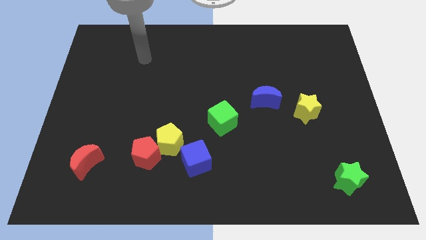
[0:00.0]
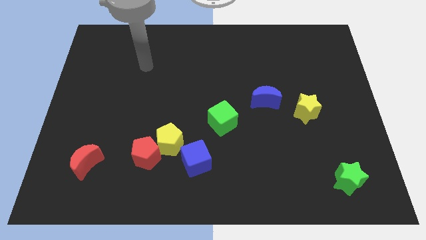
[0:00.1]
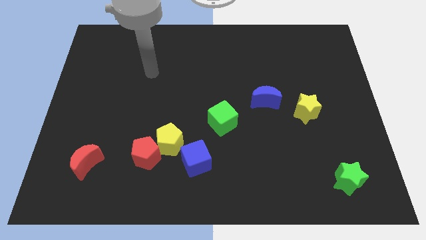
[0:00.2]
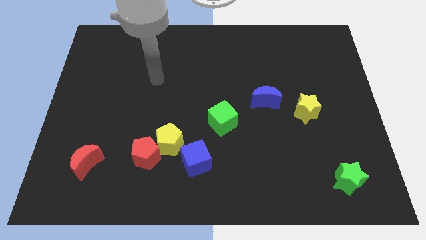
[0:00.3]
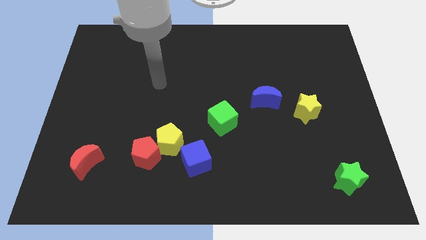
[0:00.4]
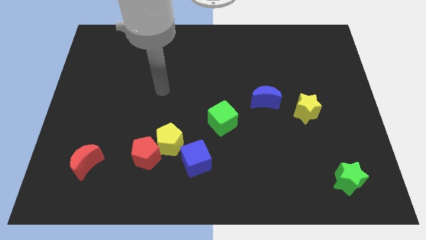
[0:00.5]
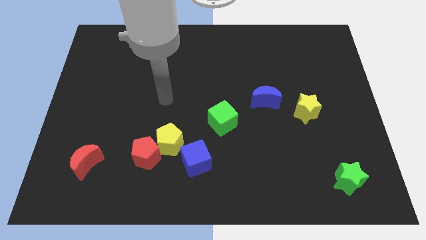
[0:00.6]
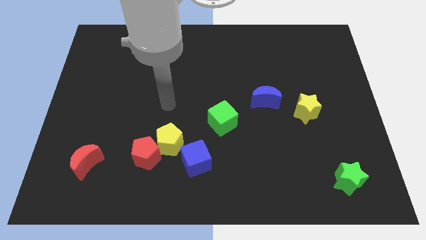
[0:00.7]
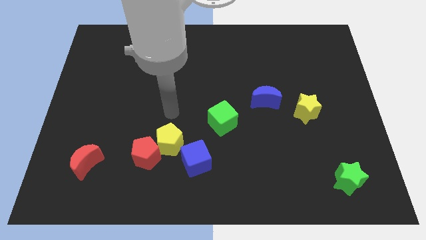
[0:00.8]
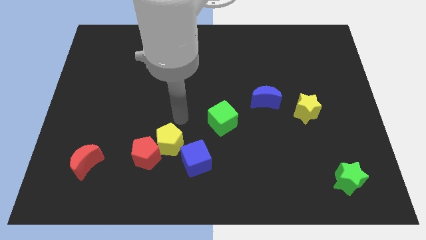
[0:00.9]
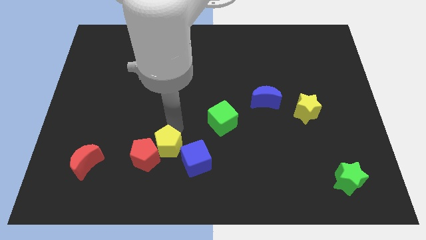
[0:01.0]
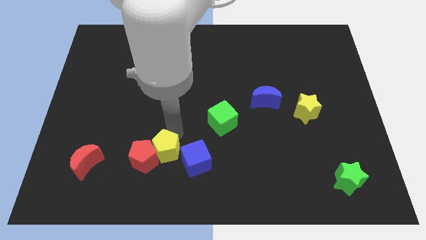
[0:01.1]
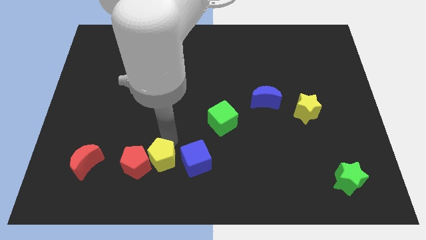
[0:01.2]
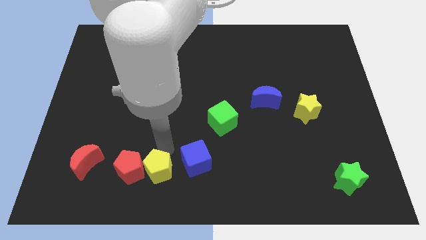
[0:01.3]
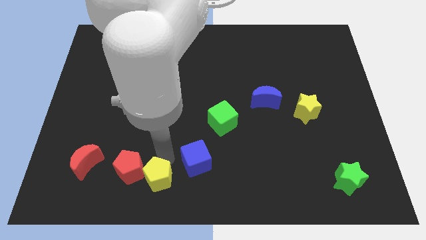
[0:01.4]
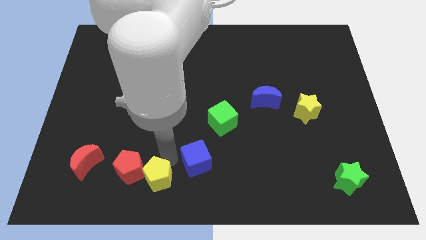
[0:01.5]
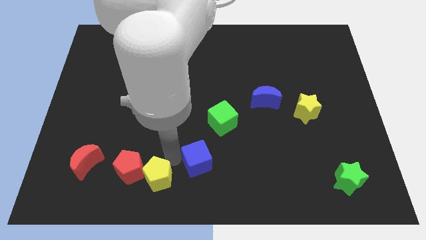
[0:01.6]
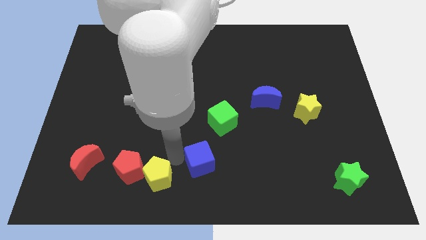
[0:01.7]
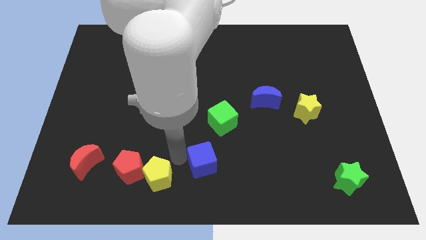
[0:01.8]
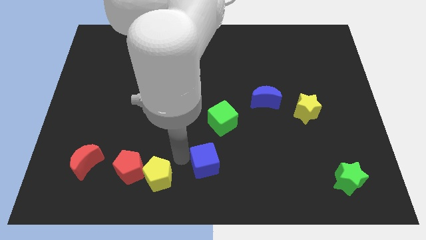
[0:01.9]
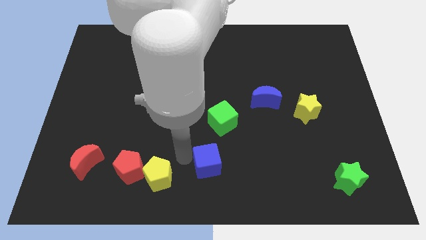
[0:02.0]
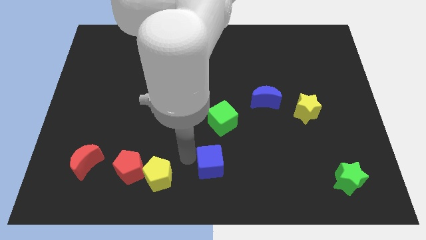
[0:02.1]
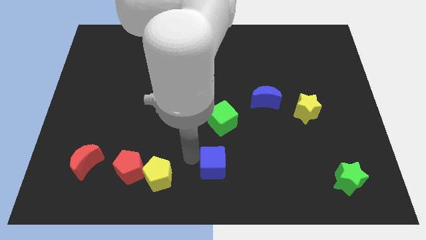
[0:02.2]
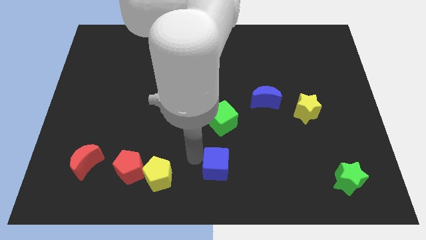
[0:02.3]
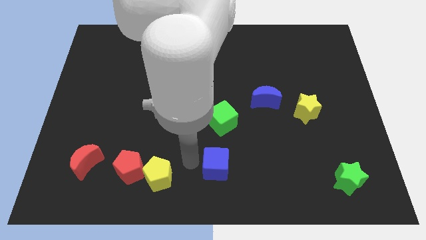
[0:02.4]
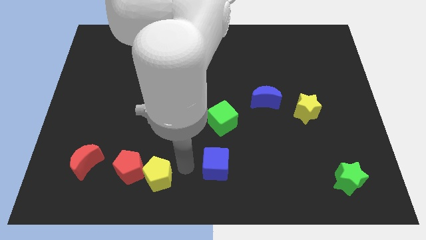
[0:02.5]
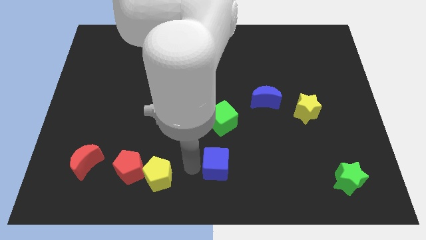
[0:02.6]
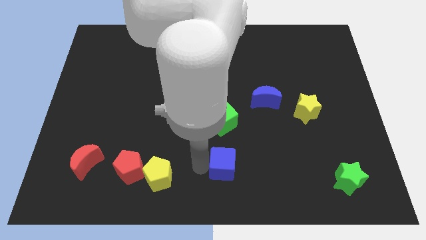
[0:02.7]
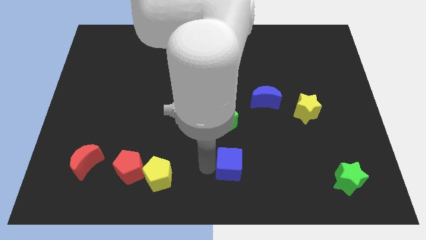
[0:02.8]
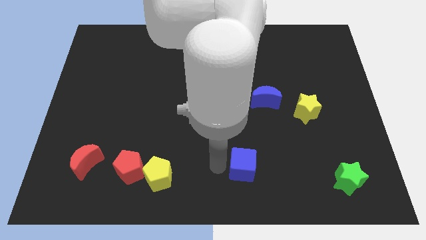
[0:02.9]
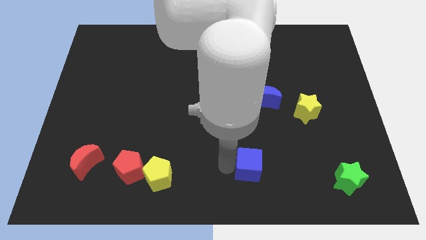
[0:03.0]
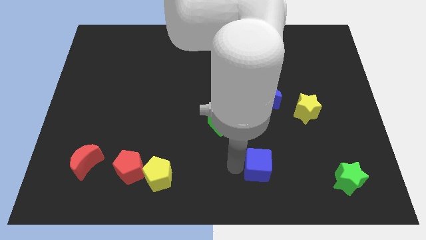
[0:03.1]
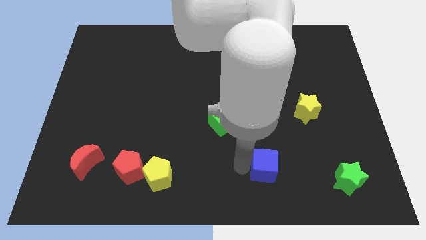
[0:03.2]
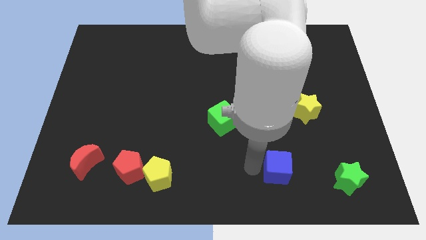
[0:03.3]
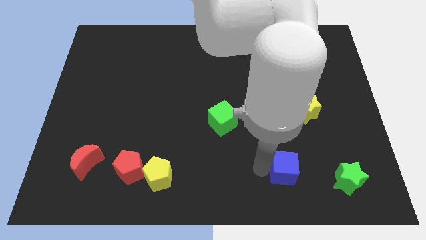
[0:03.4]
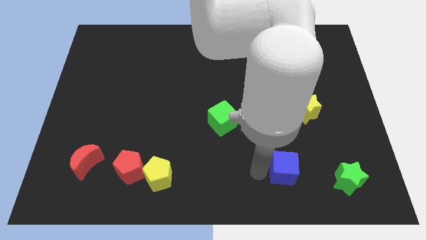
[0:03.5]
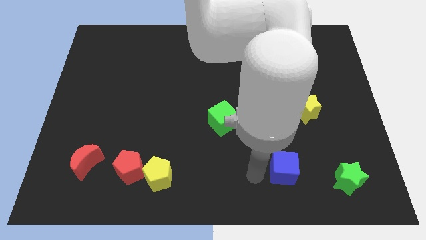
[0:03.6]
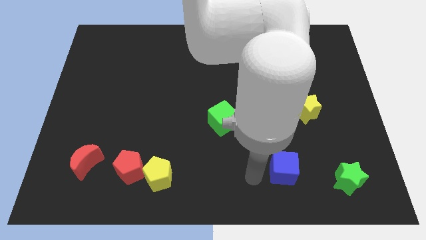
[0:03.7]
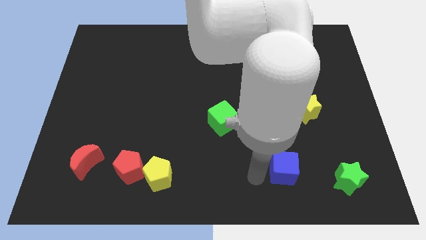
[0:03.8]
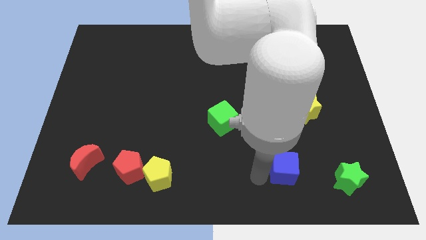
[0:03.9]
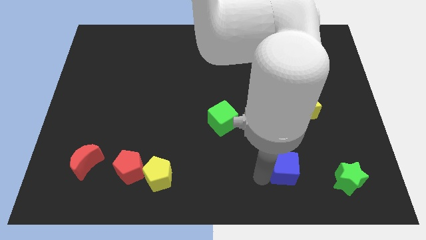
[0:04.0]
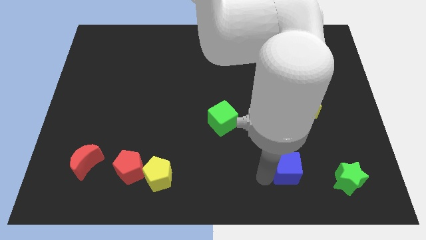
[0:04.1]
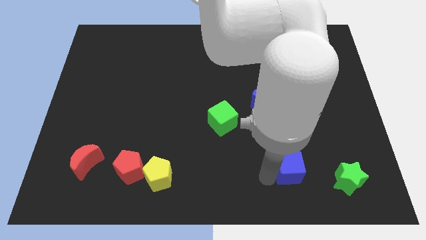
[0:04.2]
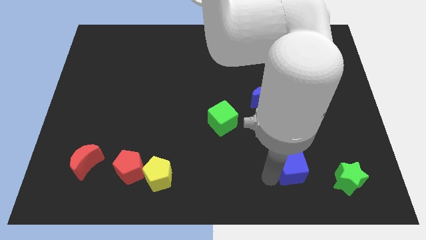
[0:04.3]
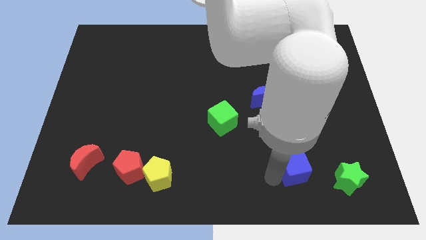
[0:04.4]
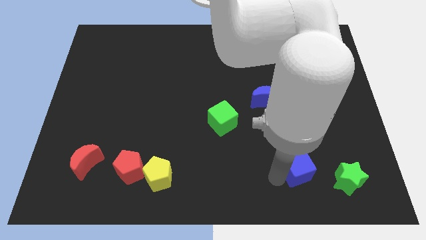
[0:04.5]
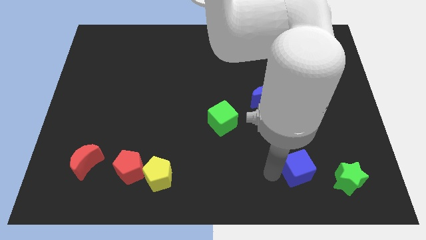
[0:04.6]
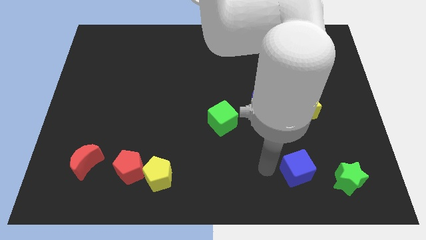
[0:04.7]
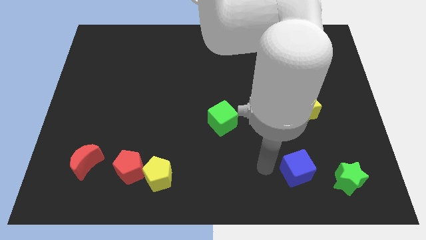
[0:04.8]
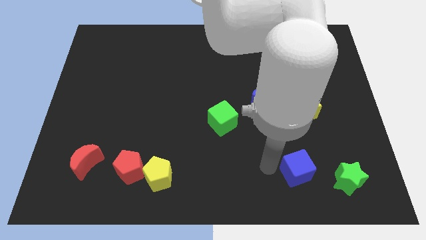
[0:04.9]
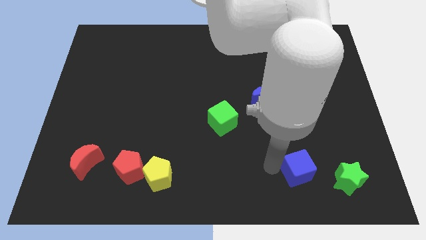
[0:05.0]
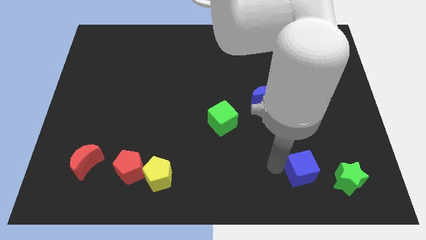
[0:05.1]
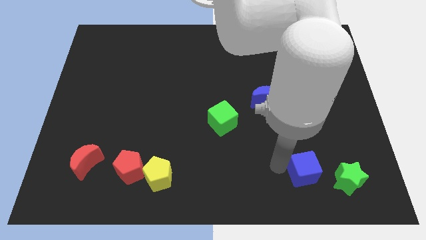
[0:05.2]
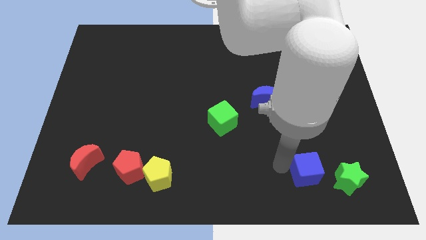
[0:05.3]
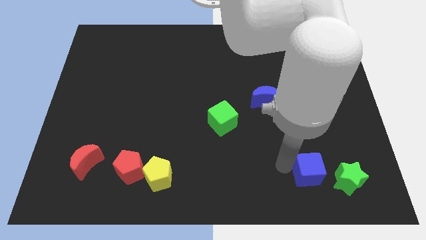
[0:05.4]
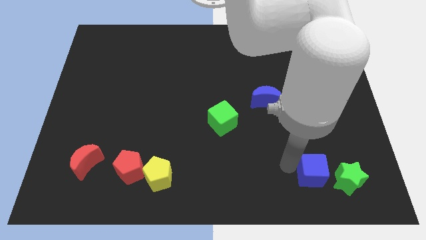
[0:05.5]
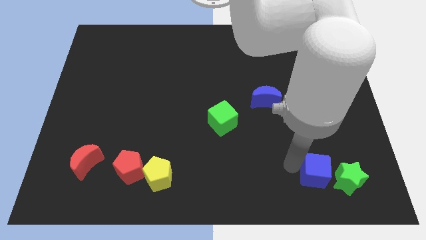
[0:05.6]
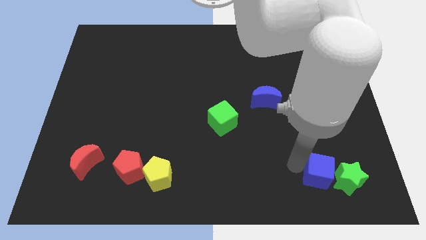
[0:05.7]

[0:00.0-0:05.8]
slide the blue cube next to the green star

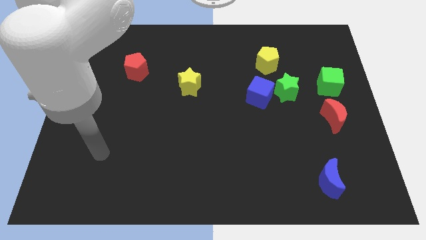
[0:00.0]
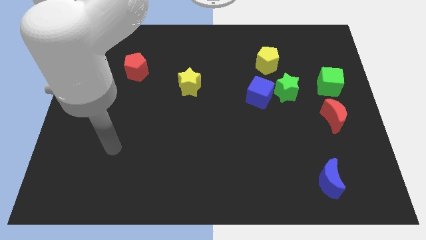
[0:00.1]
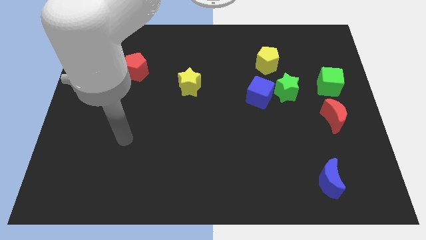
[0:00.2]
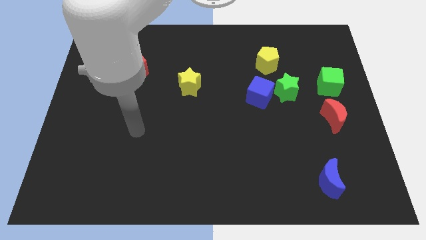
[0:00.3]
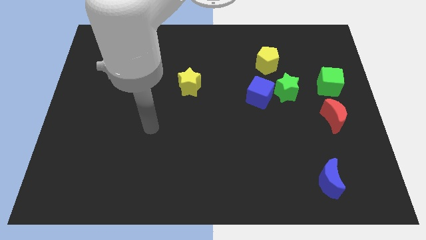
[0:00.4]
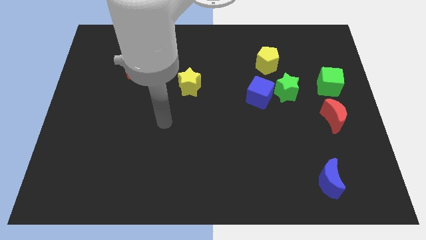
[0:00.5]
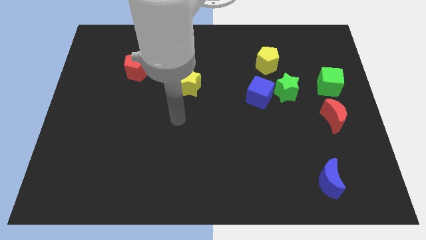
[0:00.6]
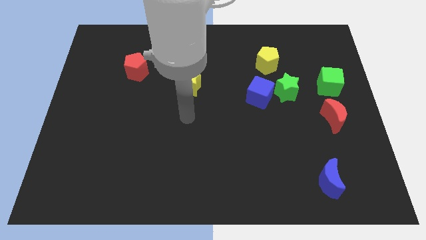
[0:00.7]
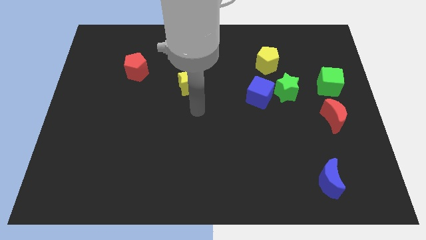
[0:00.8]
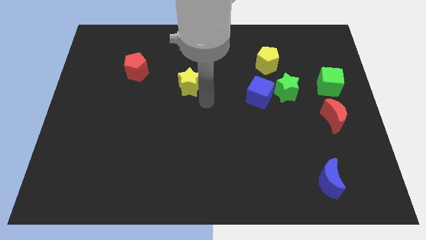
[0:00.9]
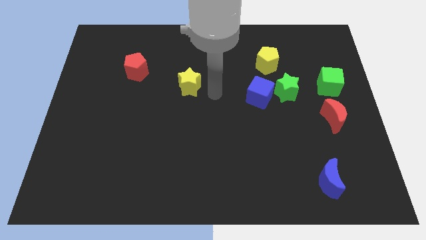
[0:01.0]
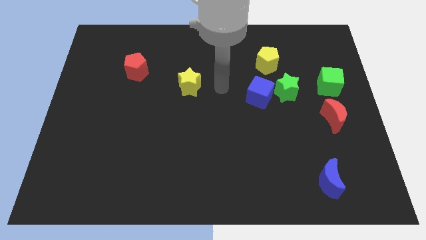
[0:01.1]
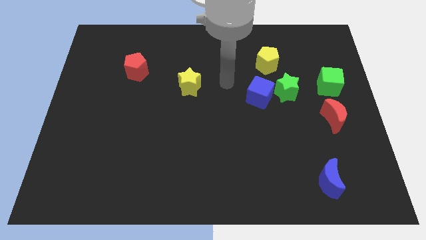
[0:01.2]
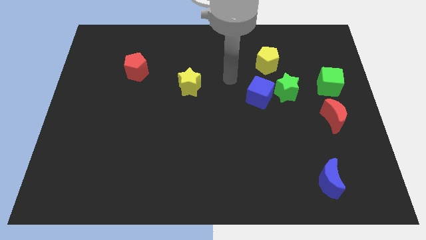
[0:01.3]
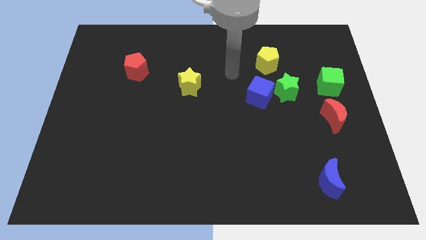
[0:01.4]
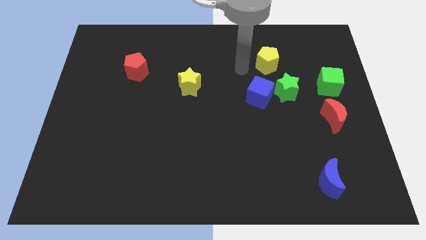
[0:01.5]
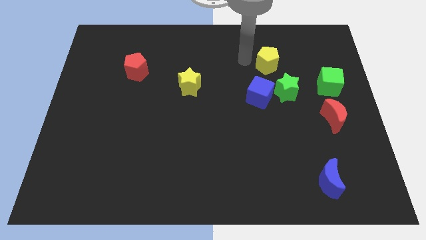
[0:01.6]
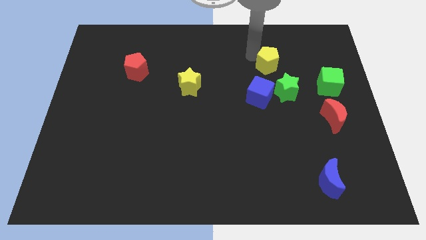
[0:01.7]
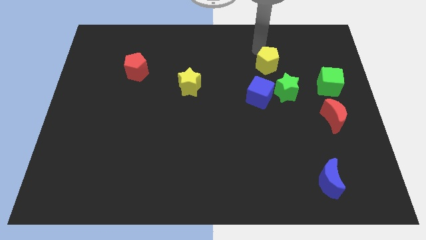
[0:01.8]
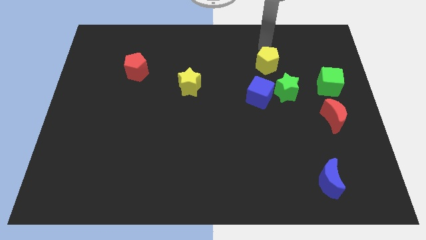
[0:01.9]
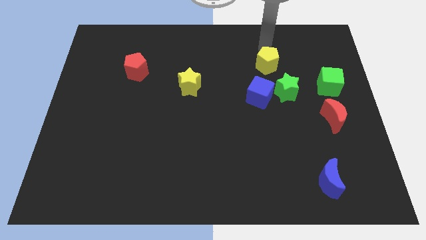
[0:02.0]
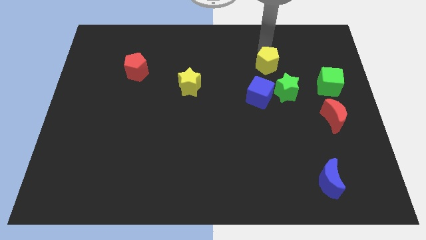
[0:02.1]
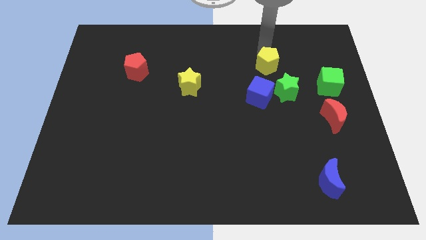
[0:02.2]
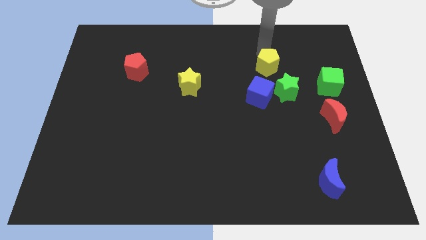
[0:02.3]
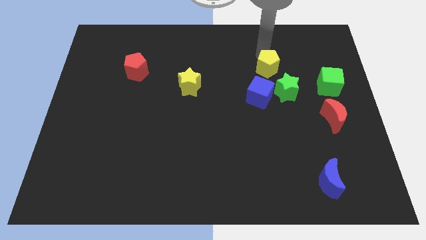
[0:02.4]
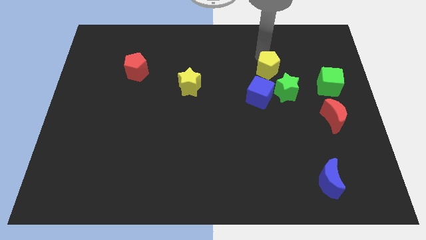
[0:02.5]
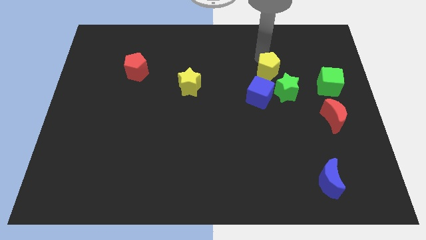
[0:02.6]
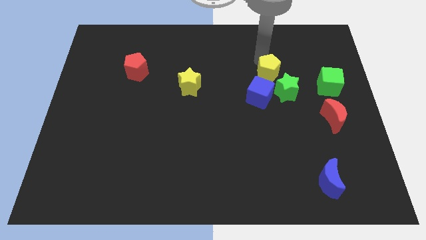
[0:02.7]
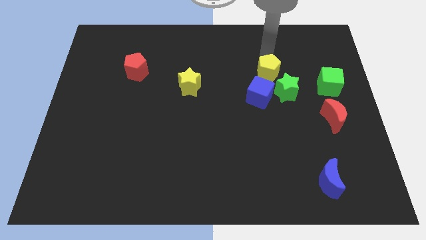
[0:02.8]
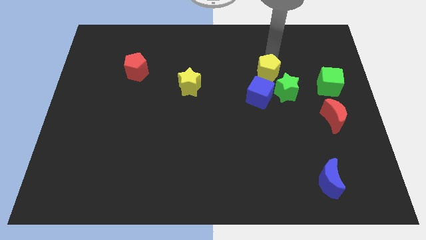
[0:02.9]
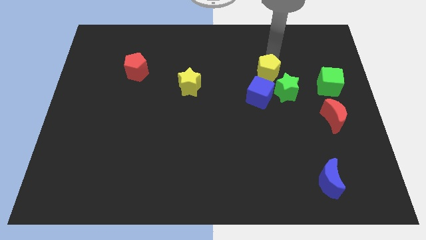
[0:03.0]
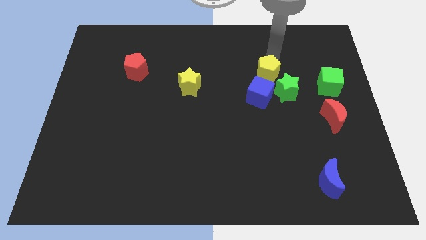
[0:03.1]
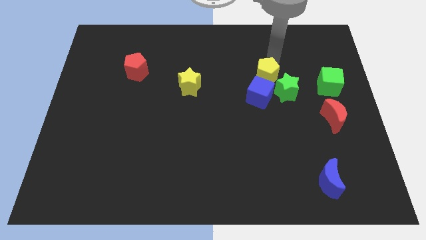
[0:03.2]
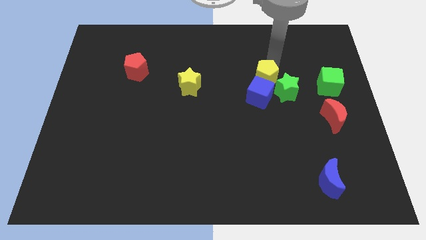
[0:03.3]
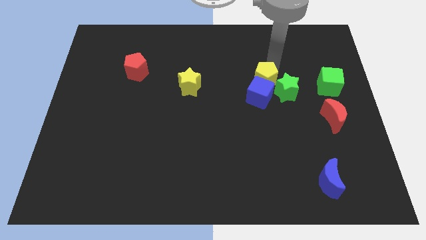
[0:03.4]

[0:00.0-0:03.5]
put the yellow pentagon towards the blue cube
